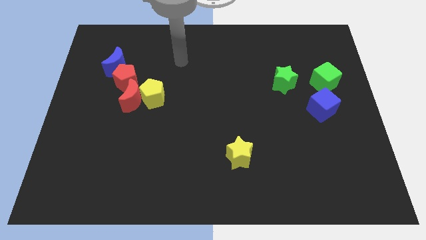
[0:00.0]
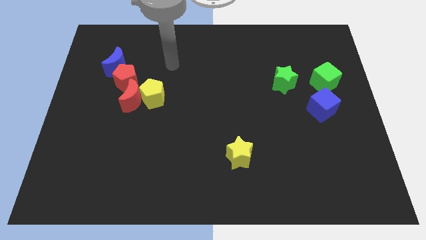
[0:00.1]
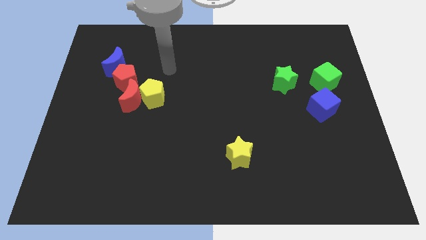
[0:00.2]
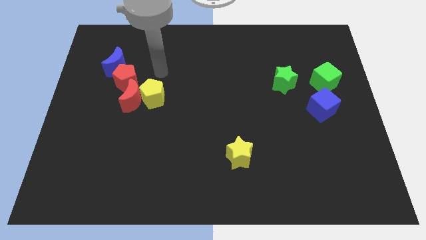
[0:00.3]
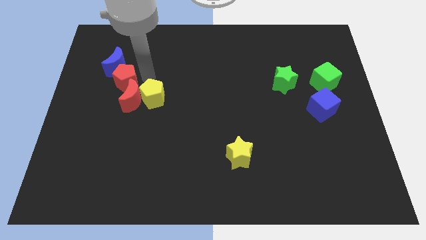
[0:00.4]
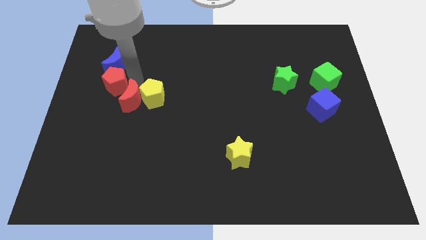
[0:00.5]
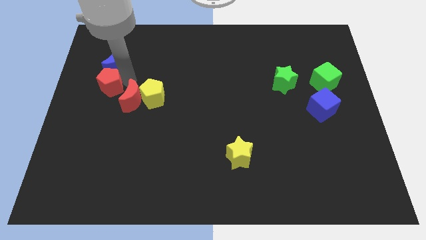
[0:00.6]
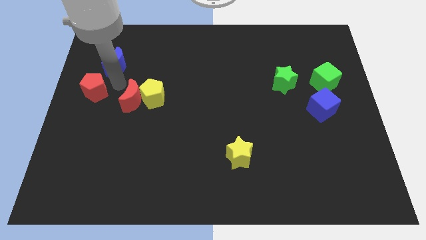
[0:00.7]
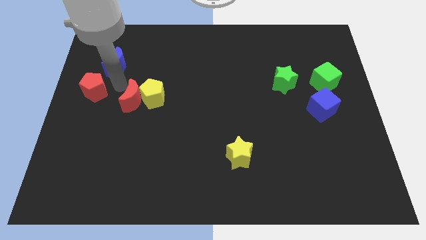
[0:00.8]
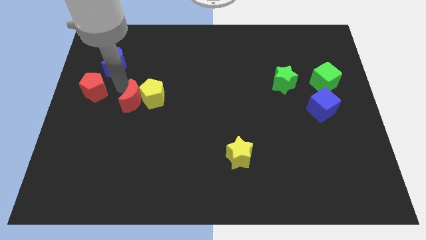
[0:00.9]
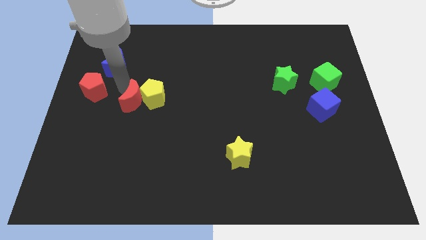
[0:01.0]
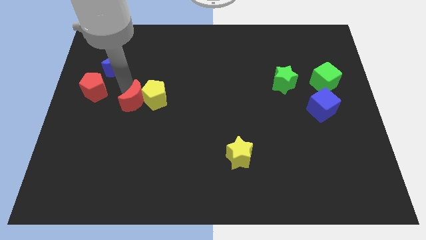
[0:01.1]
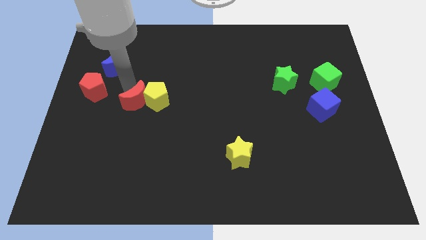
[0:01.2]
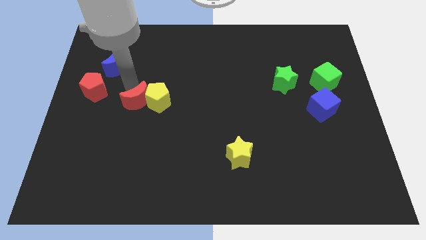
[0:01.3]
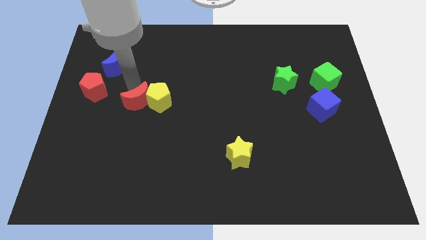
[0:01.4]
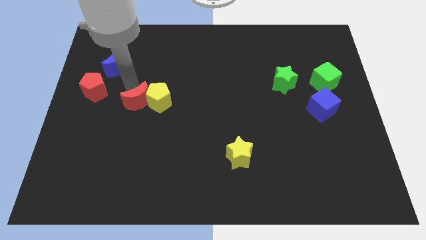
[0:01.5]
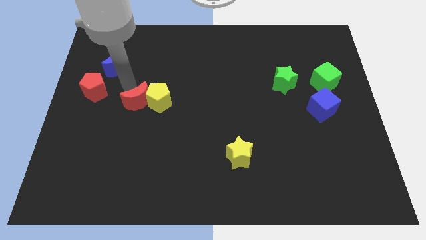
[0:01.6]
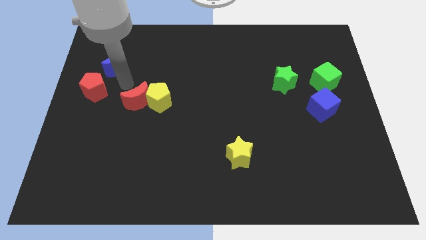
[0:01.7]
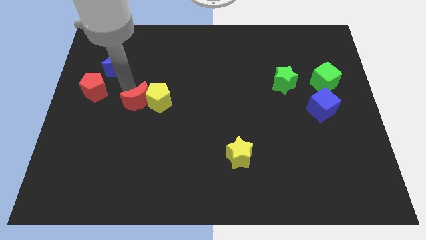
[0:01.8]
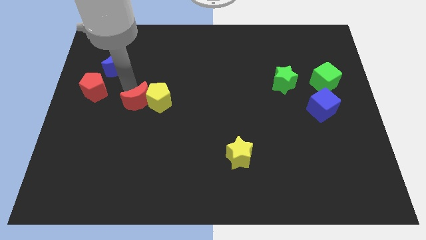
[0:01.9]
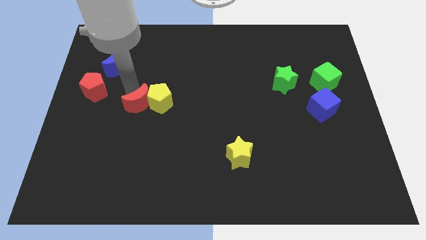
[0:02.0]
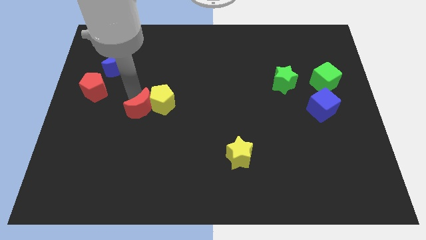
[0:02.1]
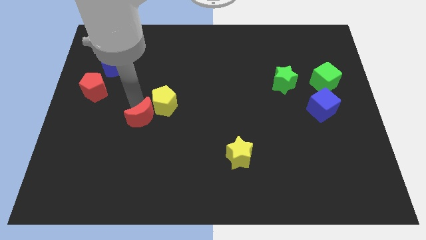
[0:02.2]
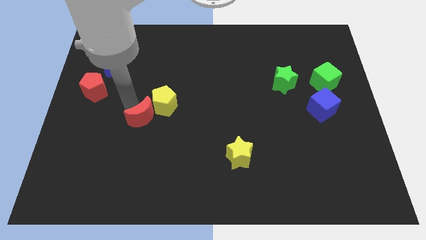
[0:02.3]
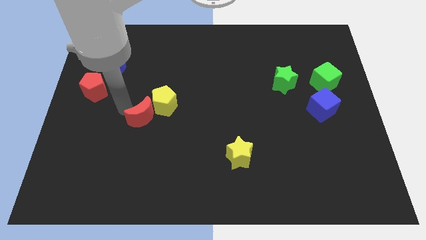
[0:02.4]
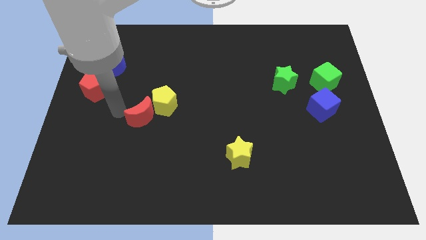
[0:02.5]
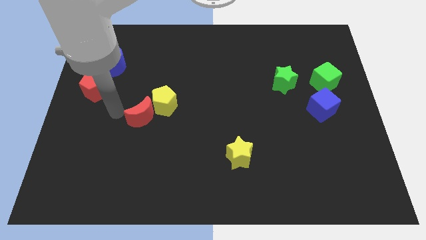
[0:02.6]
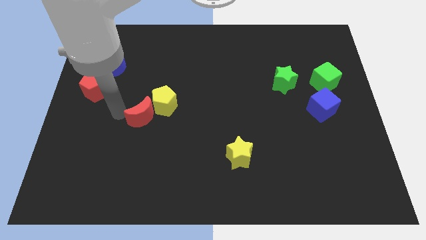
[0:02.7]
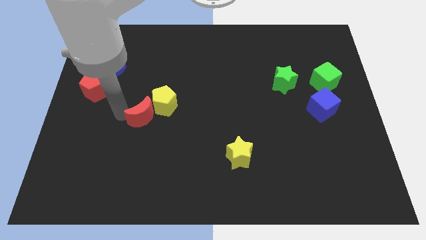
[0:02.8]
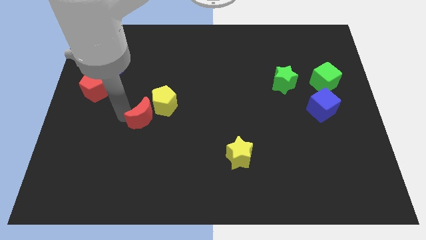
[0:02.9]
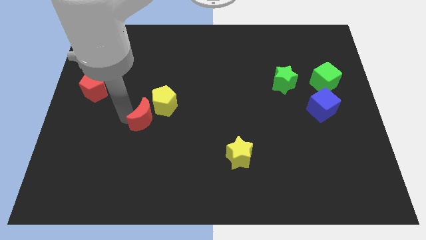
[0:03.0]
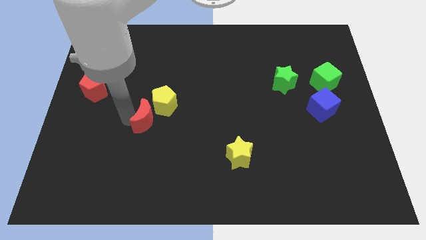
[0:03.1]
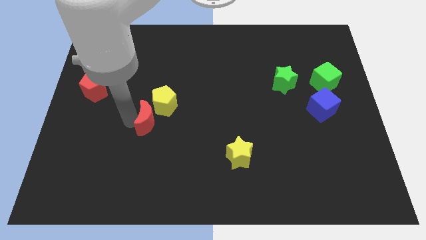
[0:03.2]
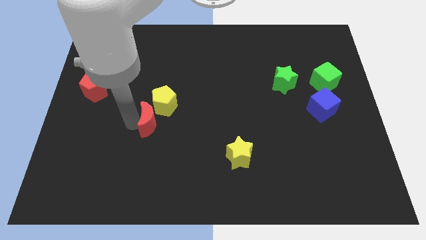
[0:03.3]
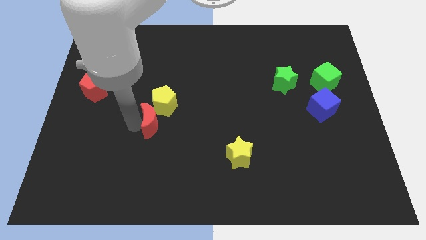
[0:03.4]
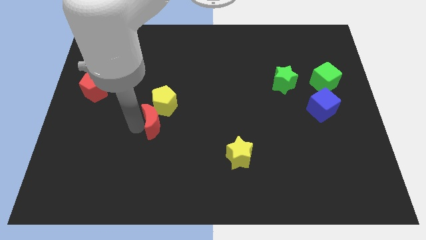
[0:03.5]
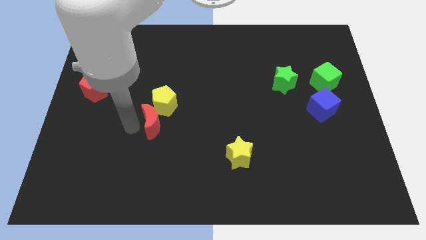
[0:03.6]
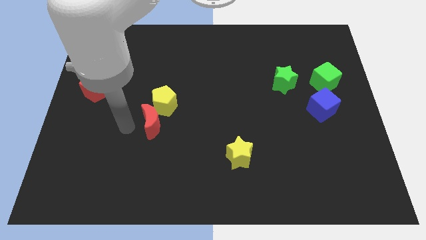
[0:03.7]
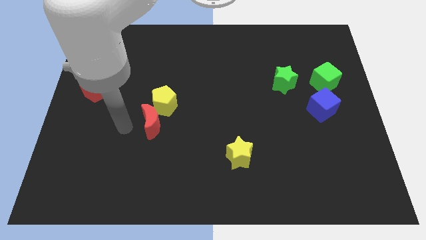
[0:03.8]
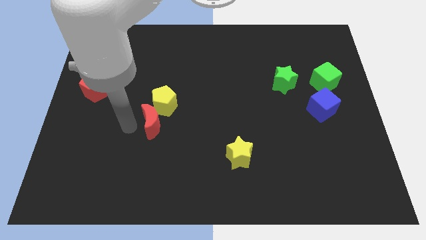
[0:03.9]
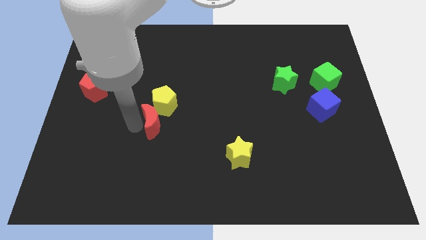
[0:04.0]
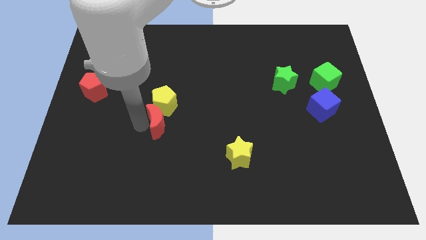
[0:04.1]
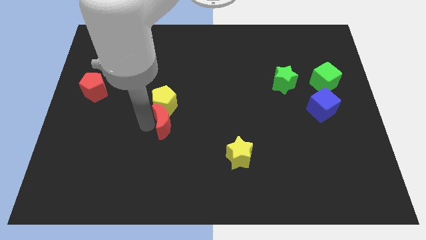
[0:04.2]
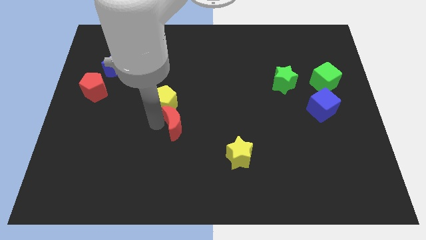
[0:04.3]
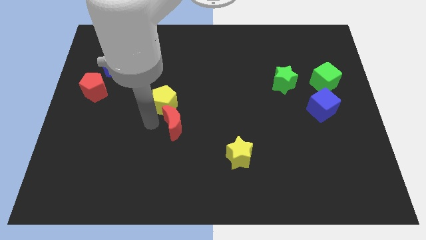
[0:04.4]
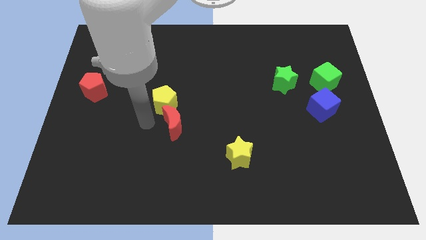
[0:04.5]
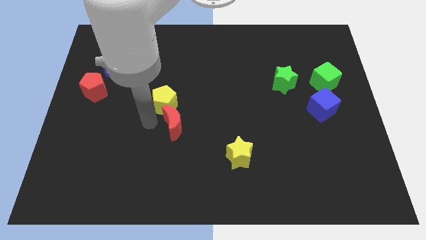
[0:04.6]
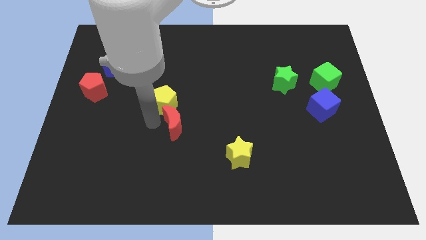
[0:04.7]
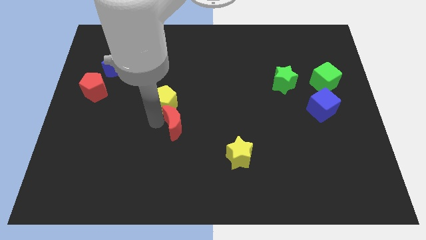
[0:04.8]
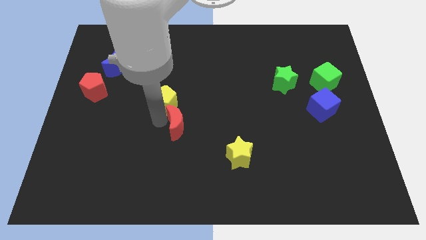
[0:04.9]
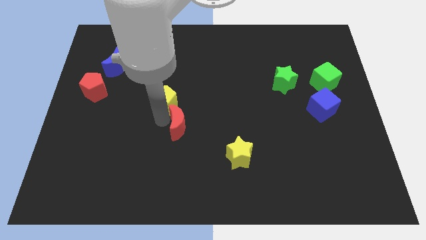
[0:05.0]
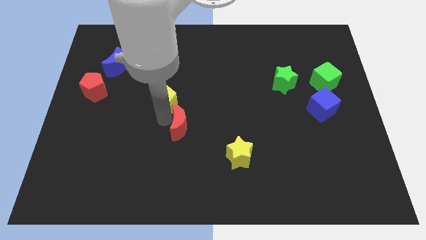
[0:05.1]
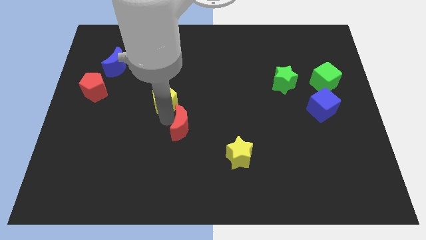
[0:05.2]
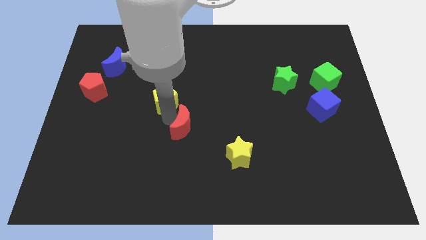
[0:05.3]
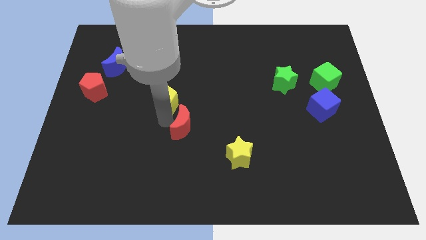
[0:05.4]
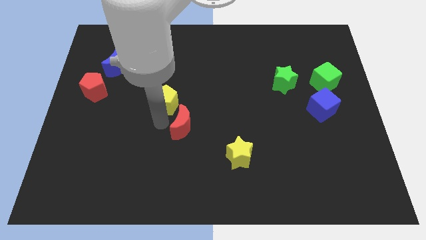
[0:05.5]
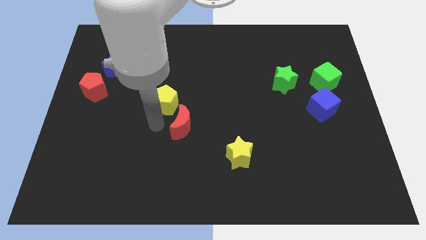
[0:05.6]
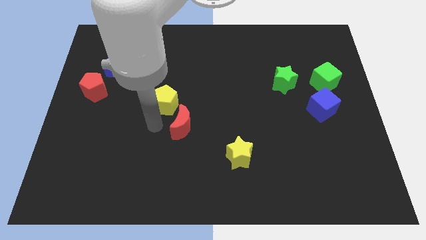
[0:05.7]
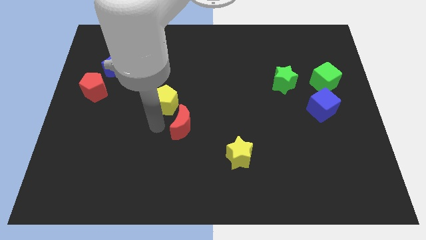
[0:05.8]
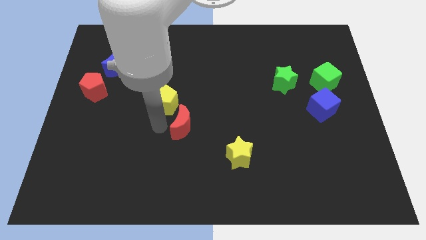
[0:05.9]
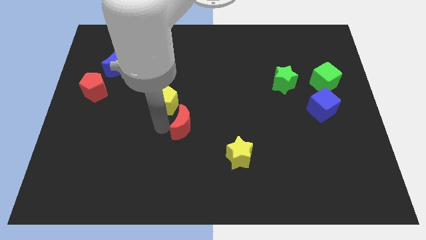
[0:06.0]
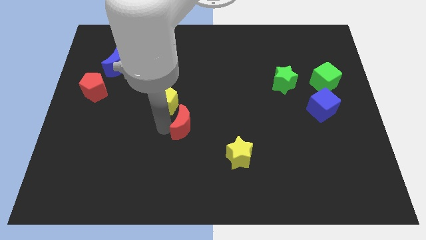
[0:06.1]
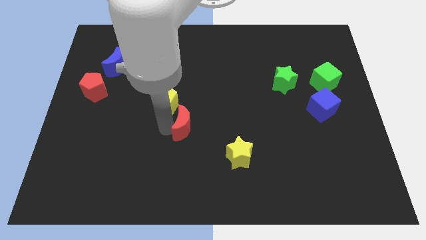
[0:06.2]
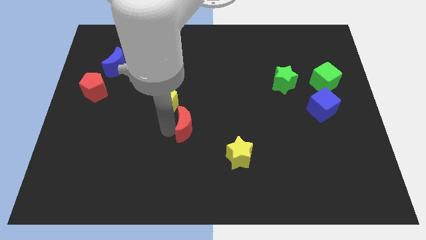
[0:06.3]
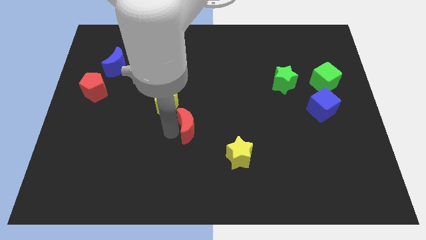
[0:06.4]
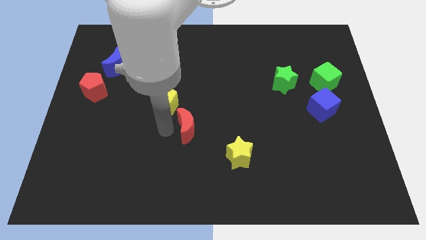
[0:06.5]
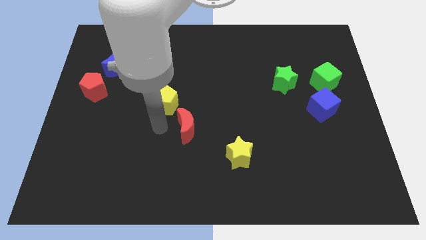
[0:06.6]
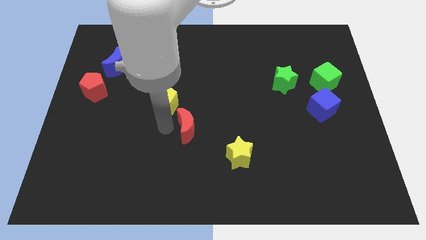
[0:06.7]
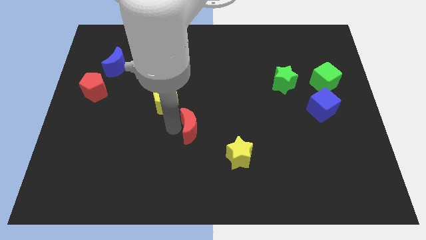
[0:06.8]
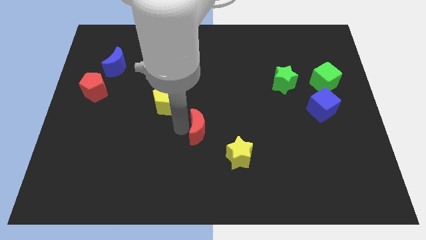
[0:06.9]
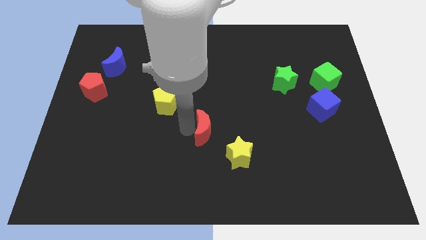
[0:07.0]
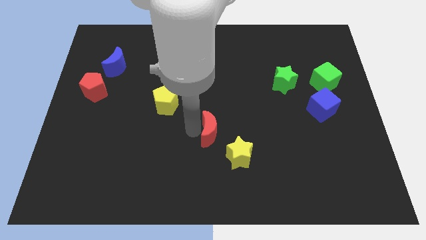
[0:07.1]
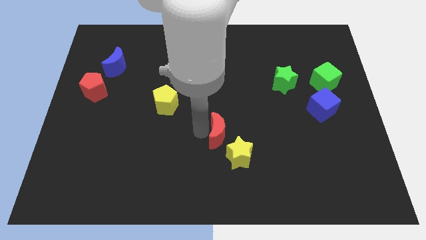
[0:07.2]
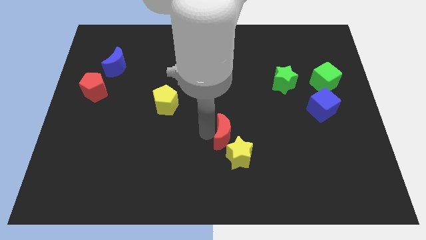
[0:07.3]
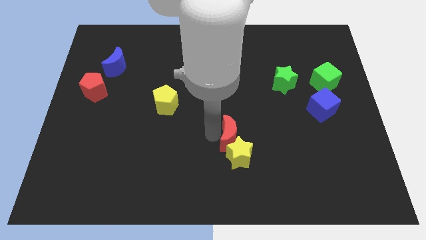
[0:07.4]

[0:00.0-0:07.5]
put the red moon to the top right of the yellow star
